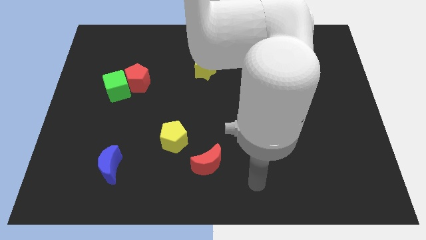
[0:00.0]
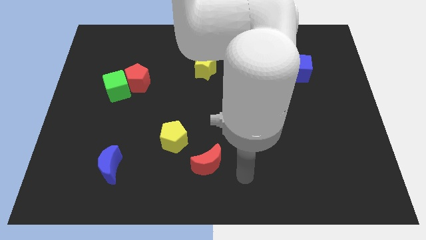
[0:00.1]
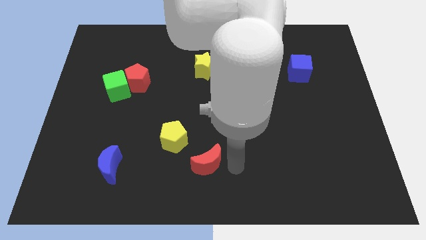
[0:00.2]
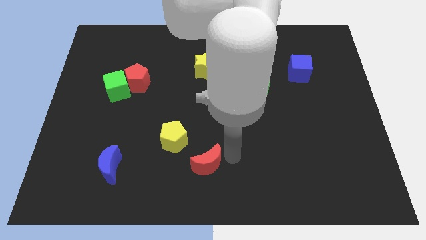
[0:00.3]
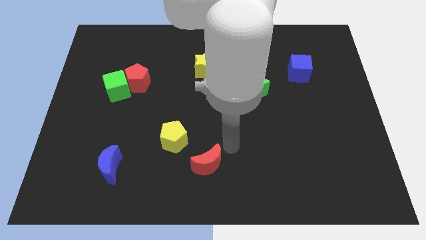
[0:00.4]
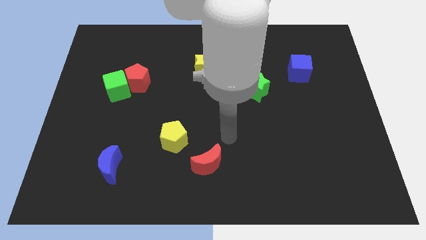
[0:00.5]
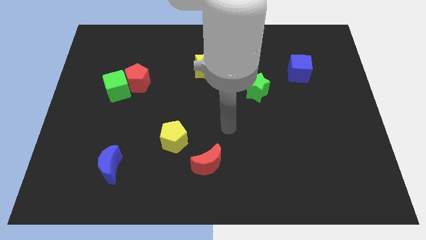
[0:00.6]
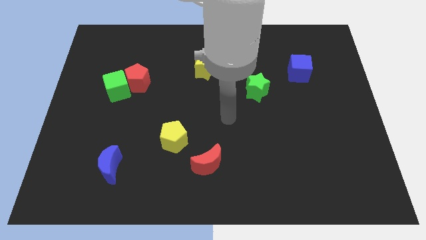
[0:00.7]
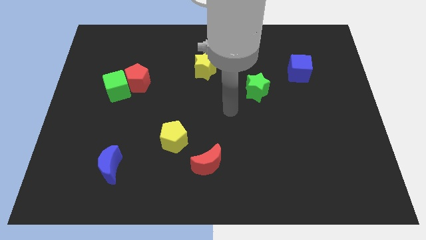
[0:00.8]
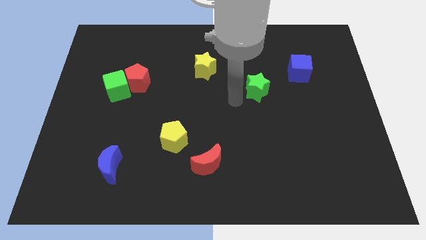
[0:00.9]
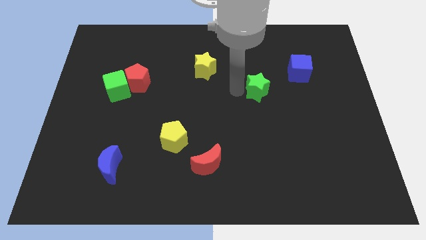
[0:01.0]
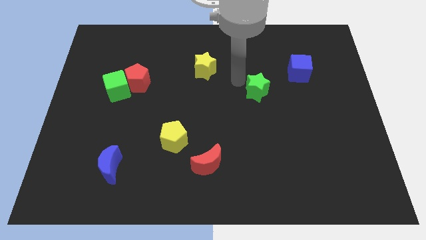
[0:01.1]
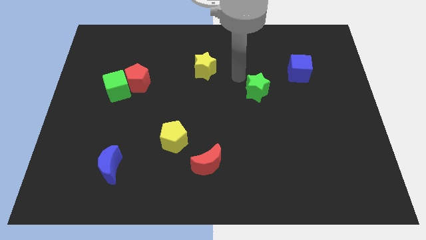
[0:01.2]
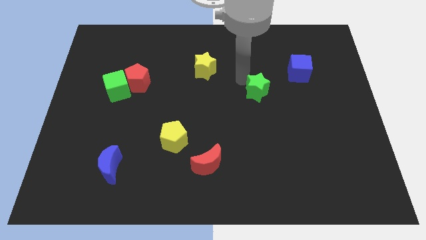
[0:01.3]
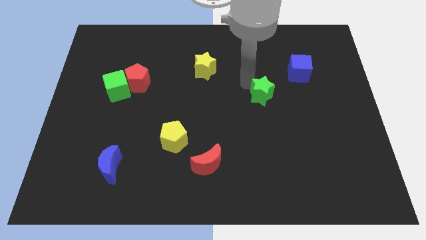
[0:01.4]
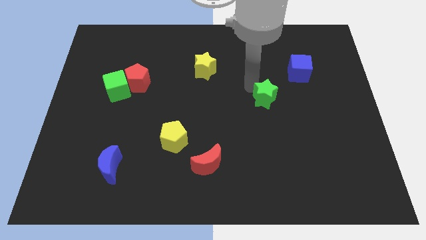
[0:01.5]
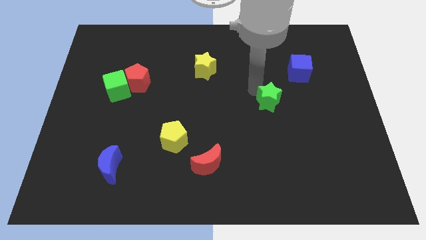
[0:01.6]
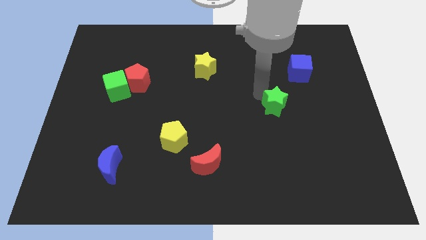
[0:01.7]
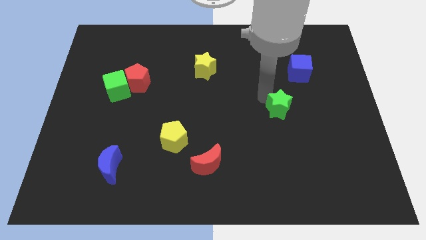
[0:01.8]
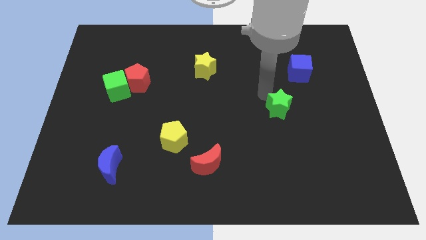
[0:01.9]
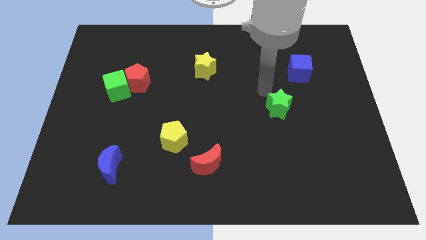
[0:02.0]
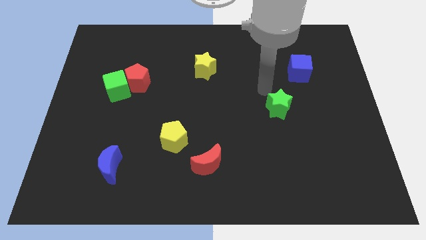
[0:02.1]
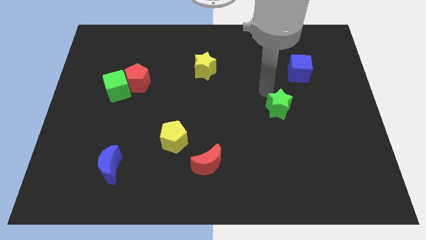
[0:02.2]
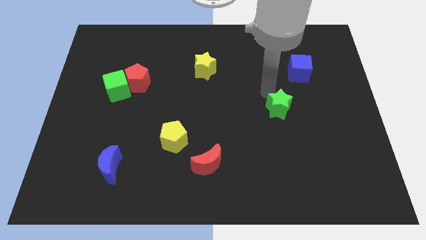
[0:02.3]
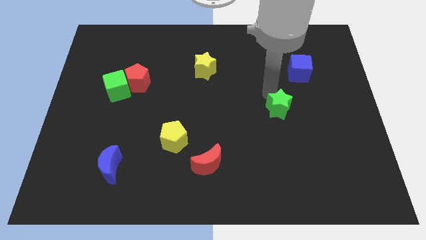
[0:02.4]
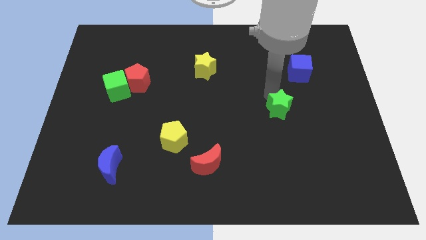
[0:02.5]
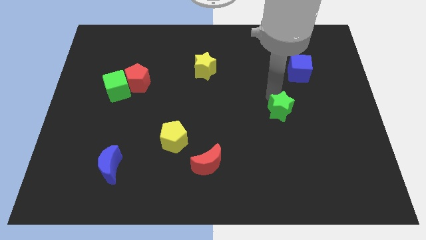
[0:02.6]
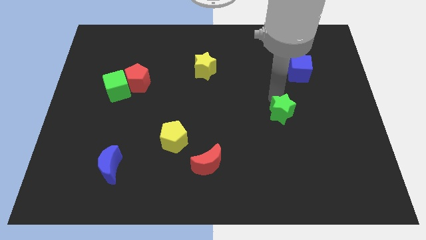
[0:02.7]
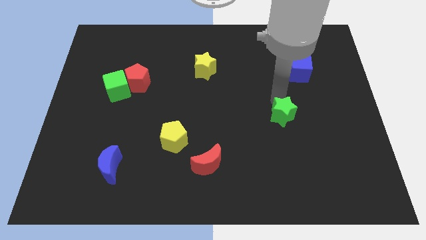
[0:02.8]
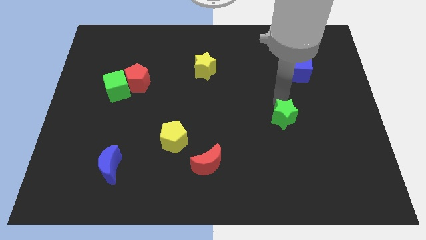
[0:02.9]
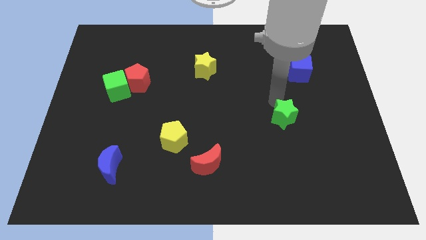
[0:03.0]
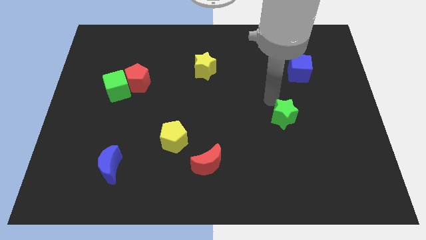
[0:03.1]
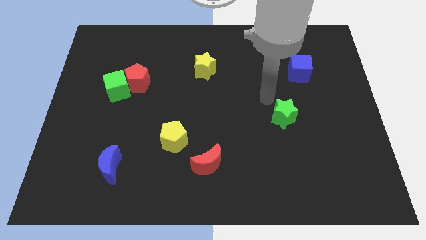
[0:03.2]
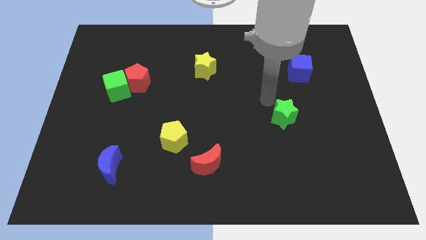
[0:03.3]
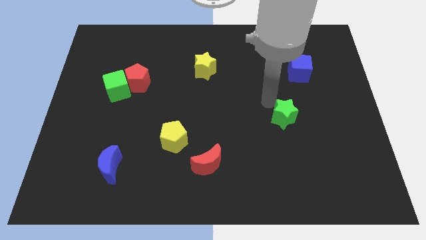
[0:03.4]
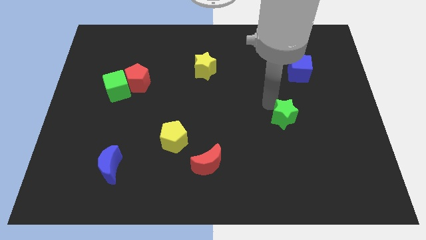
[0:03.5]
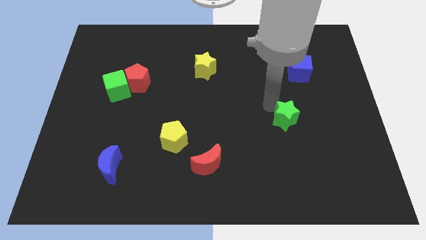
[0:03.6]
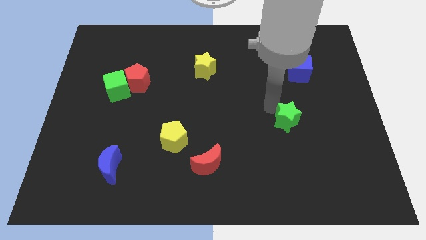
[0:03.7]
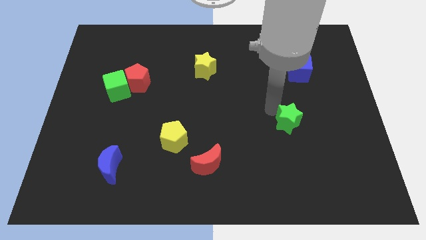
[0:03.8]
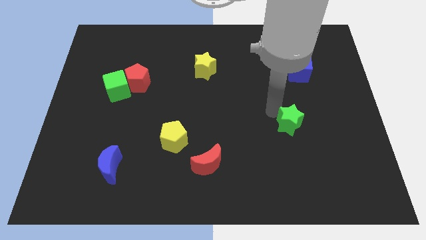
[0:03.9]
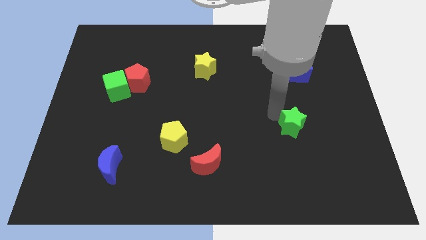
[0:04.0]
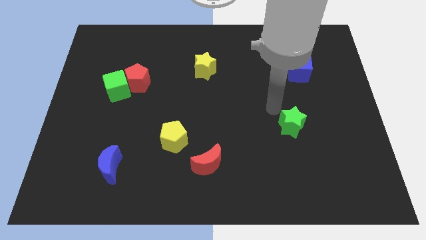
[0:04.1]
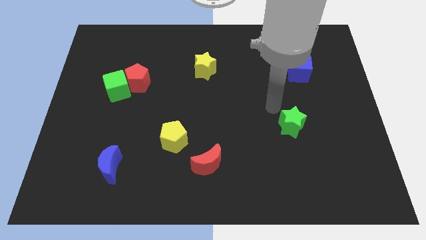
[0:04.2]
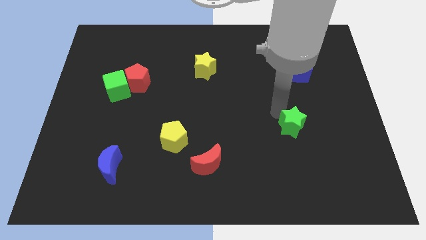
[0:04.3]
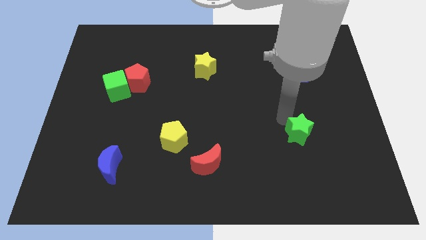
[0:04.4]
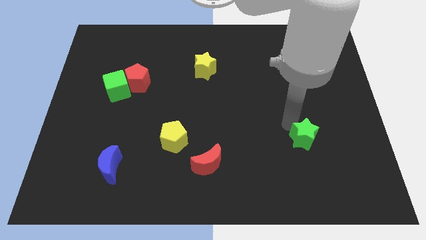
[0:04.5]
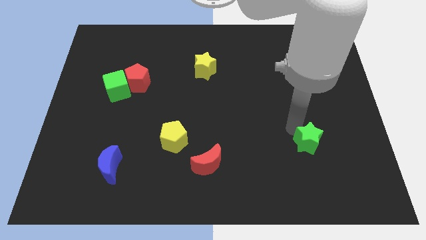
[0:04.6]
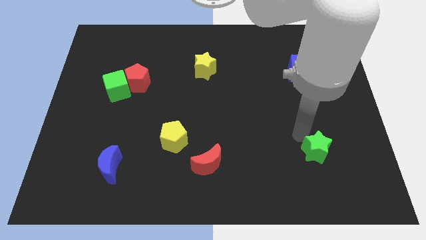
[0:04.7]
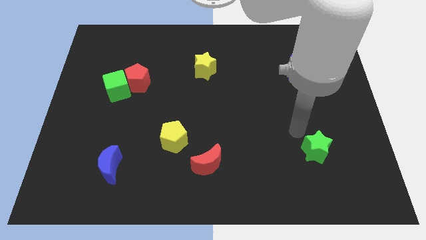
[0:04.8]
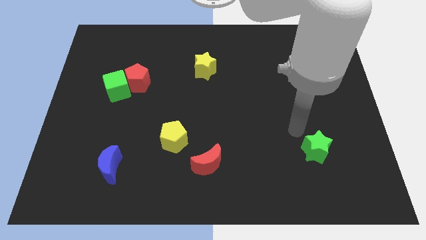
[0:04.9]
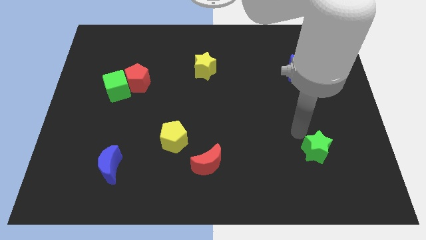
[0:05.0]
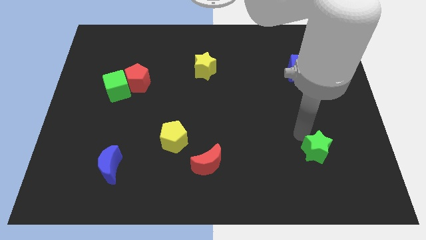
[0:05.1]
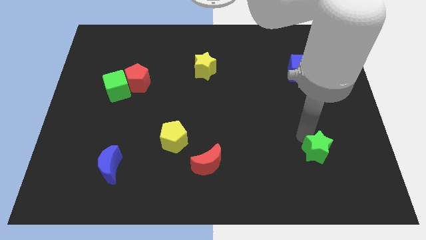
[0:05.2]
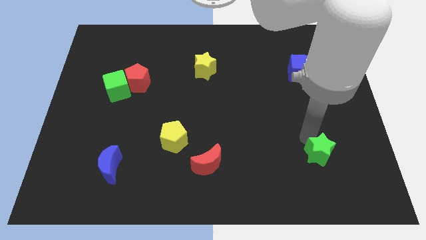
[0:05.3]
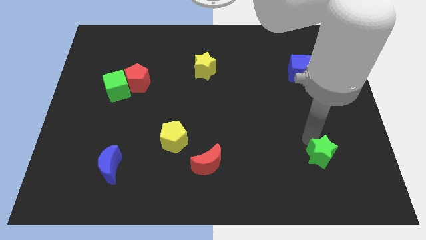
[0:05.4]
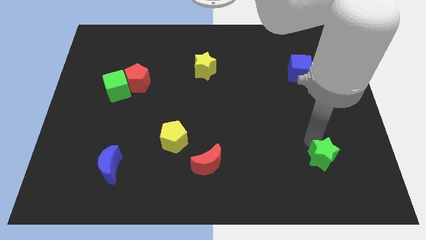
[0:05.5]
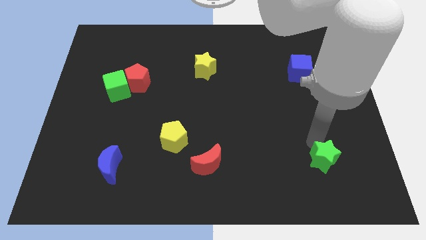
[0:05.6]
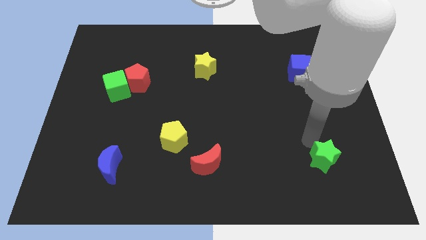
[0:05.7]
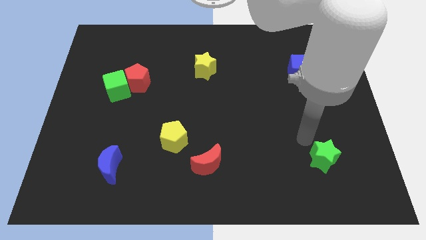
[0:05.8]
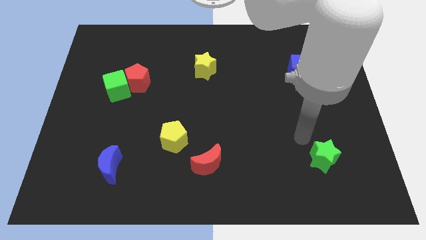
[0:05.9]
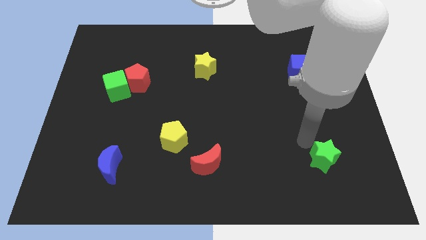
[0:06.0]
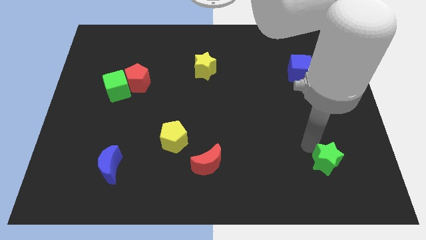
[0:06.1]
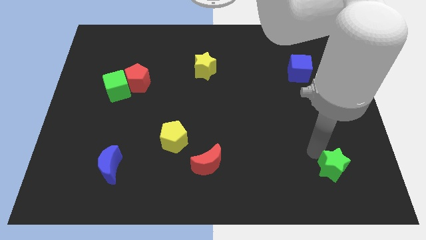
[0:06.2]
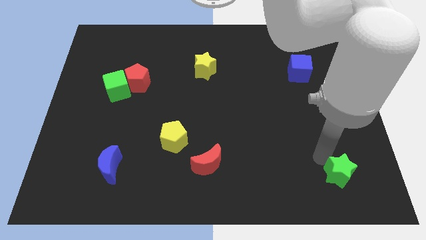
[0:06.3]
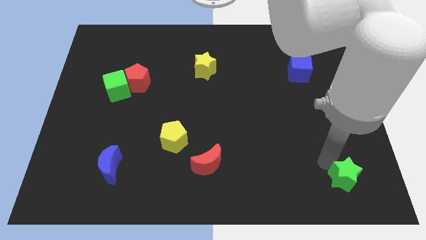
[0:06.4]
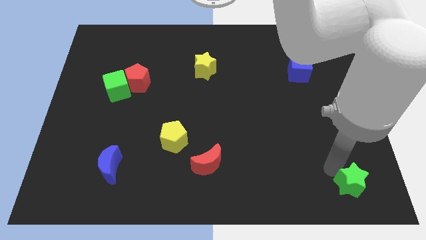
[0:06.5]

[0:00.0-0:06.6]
slide the green star to the bottom right

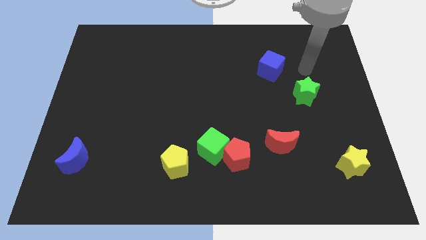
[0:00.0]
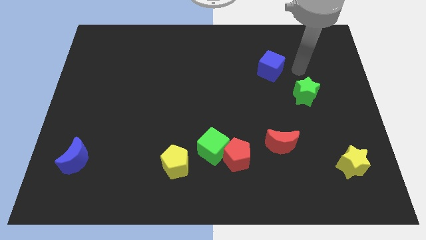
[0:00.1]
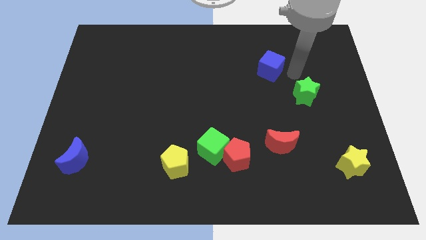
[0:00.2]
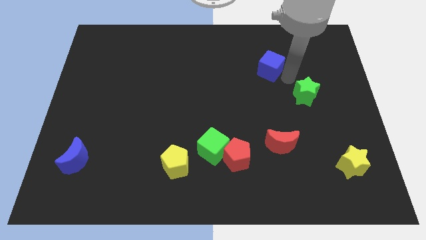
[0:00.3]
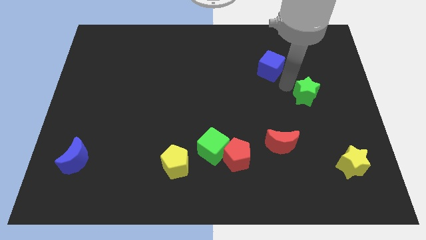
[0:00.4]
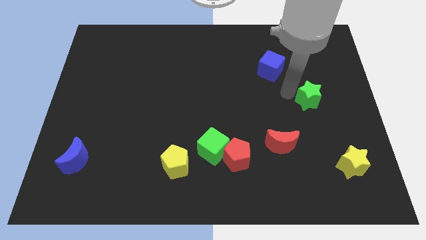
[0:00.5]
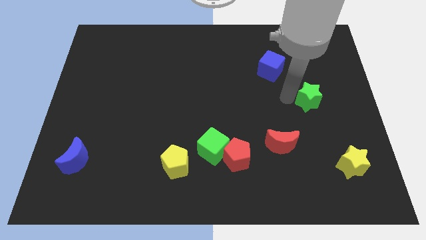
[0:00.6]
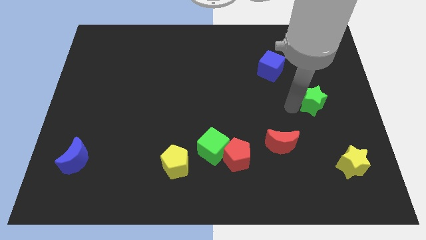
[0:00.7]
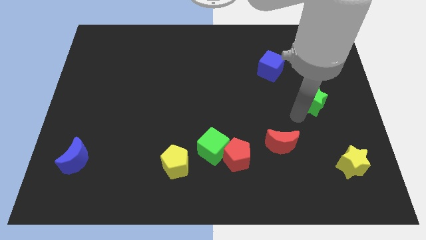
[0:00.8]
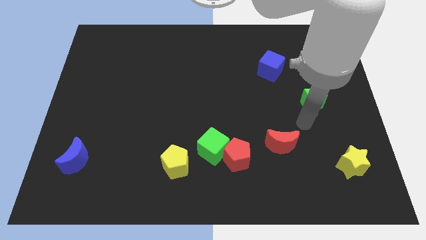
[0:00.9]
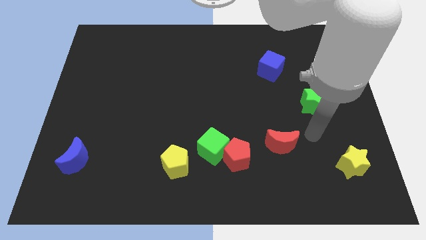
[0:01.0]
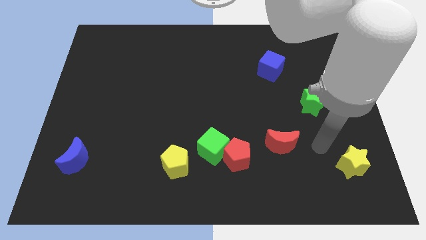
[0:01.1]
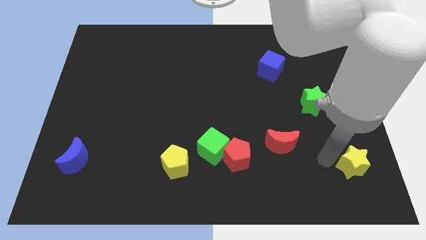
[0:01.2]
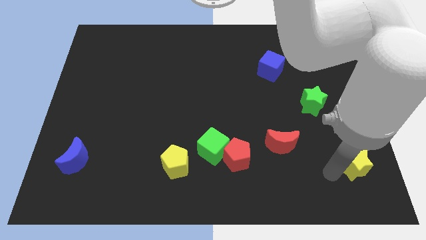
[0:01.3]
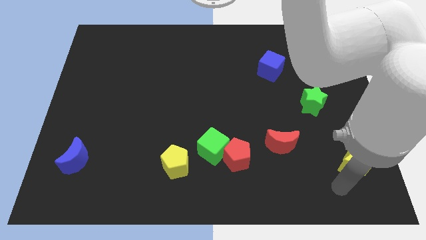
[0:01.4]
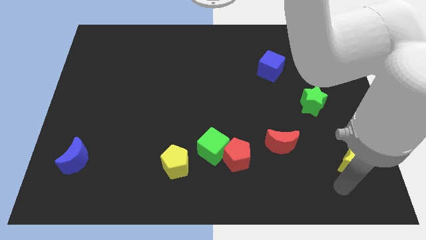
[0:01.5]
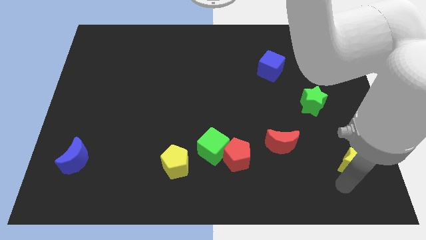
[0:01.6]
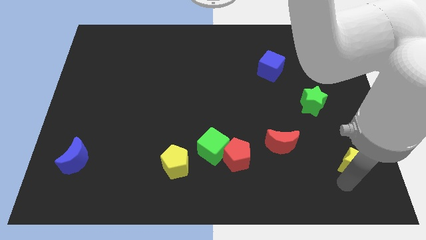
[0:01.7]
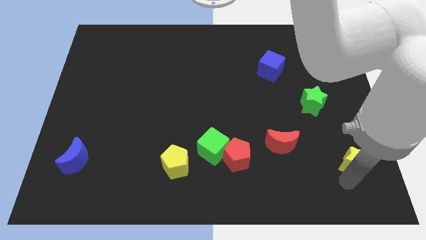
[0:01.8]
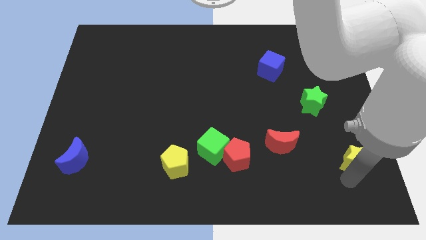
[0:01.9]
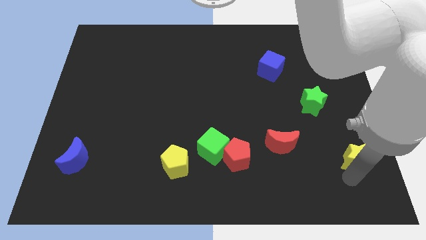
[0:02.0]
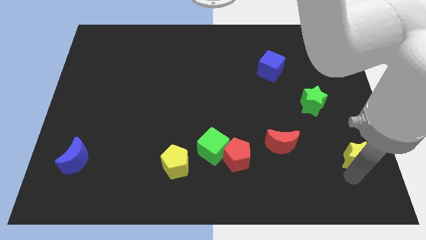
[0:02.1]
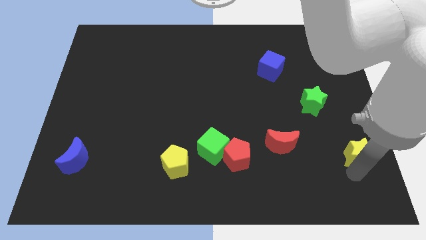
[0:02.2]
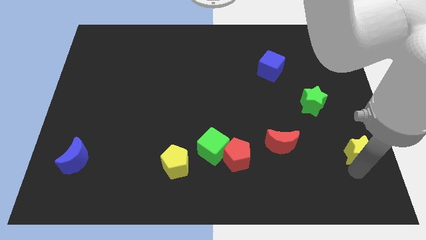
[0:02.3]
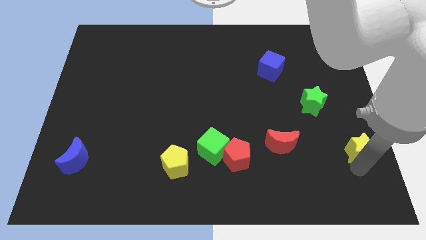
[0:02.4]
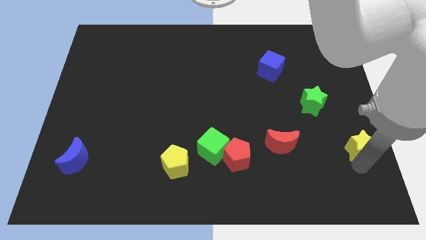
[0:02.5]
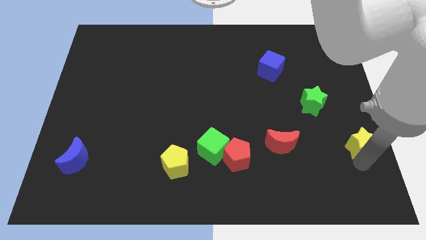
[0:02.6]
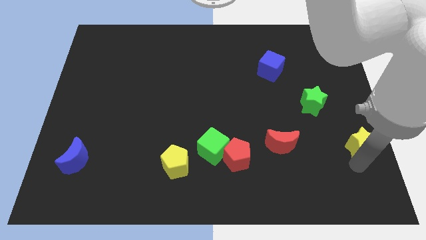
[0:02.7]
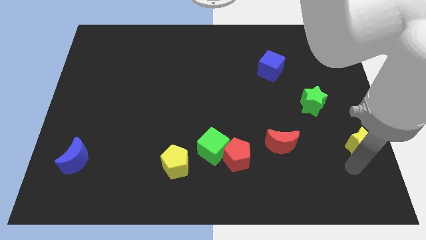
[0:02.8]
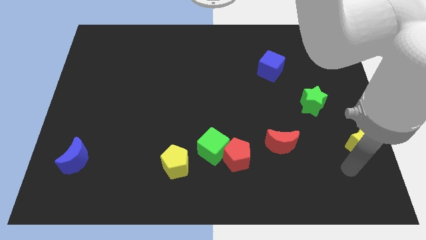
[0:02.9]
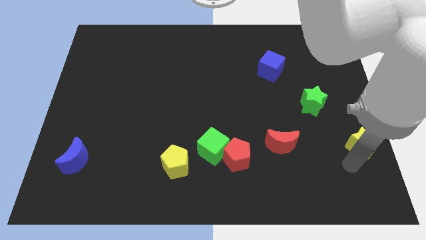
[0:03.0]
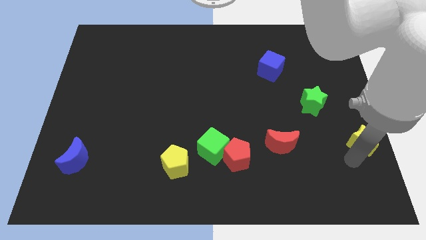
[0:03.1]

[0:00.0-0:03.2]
push the yellow star to the center right
